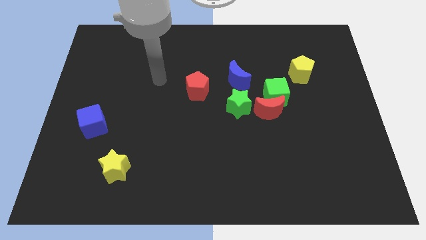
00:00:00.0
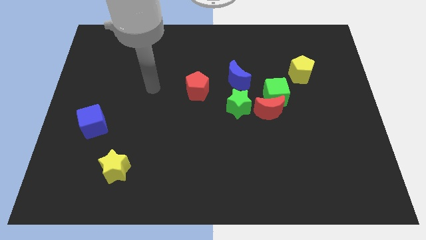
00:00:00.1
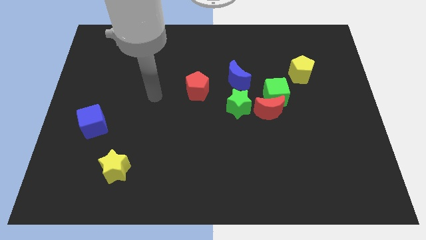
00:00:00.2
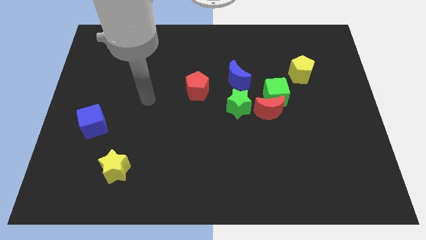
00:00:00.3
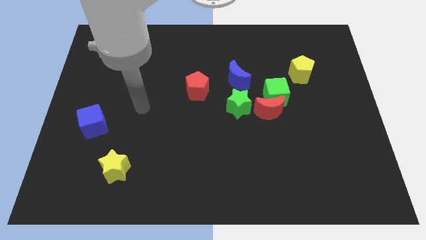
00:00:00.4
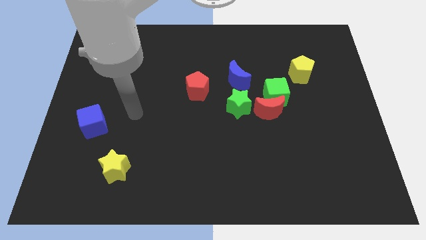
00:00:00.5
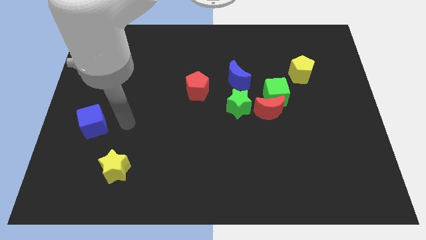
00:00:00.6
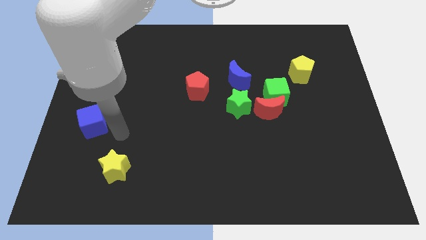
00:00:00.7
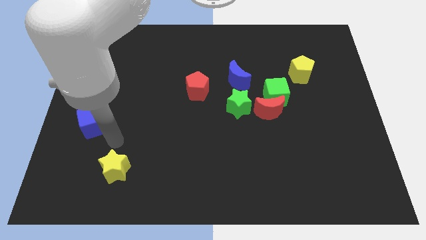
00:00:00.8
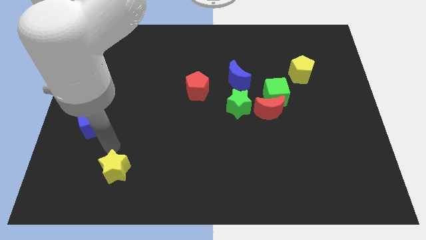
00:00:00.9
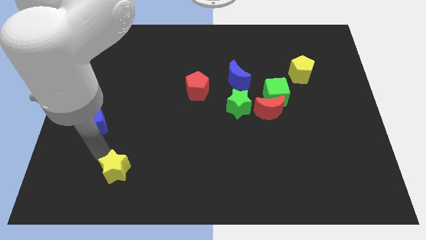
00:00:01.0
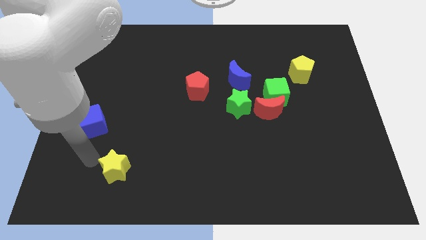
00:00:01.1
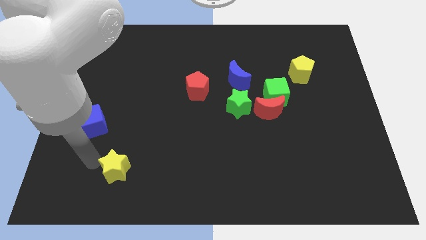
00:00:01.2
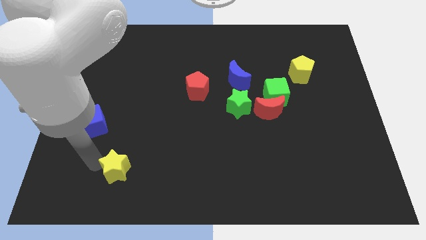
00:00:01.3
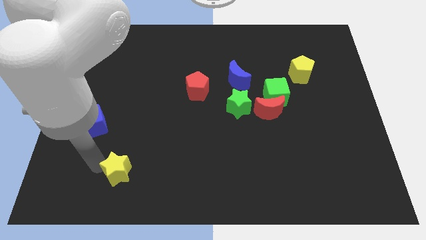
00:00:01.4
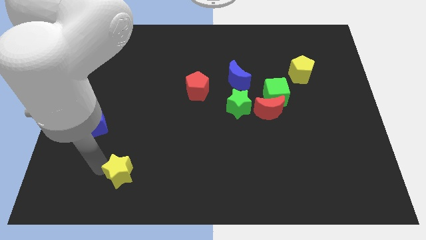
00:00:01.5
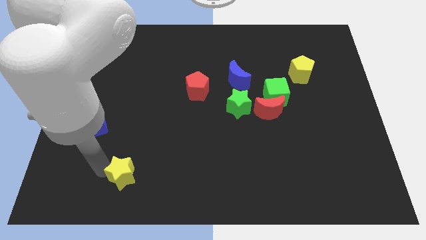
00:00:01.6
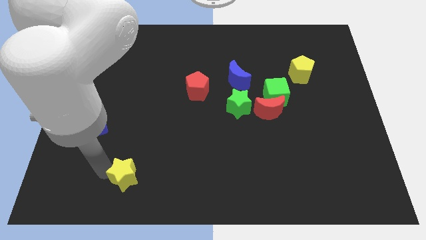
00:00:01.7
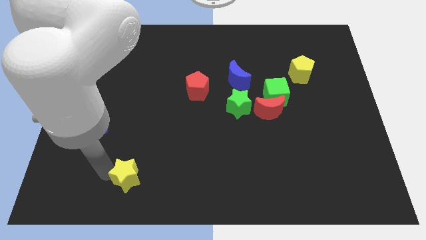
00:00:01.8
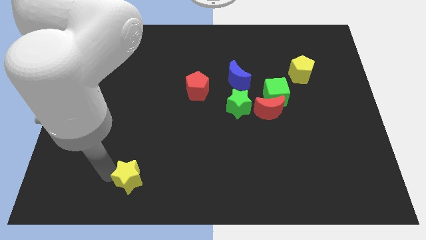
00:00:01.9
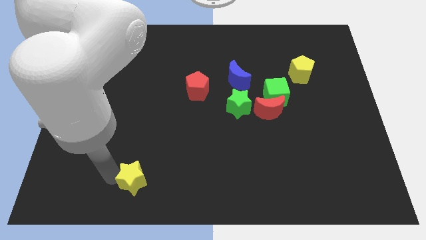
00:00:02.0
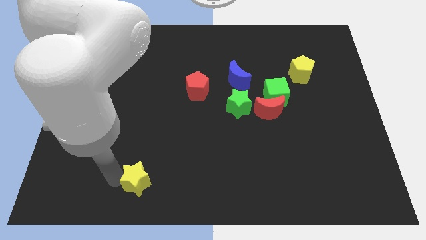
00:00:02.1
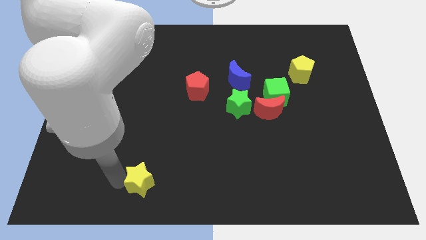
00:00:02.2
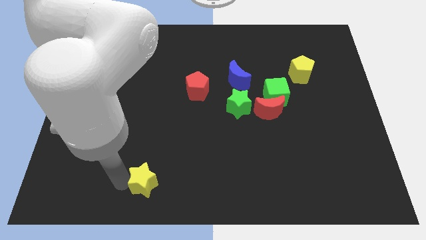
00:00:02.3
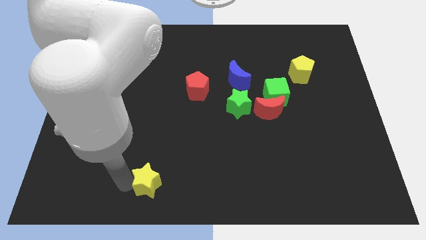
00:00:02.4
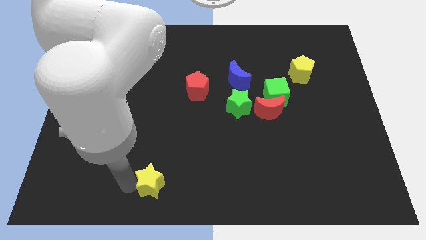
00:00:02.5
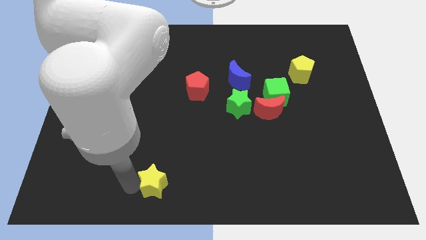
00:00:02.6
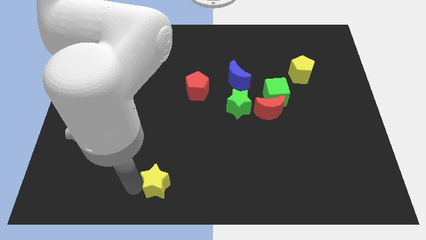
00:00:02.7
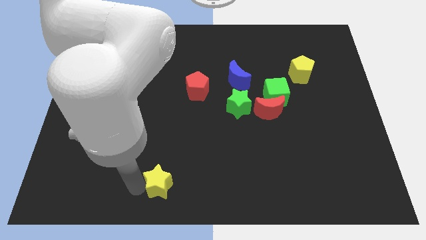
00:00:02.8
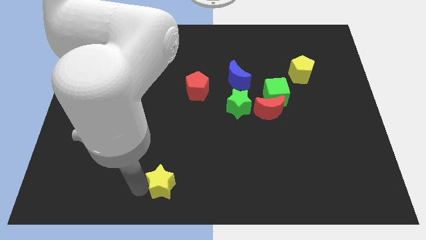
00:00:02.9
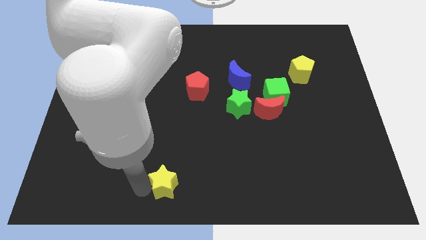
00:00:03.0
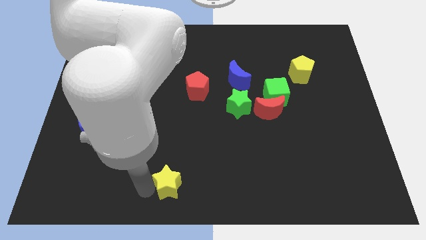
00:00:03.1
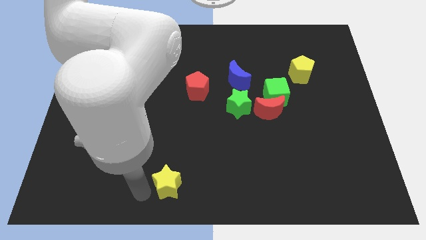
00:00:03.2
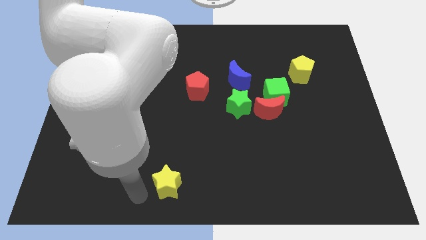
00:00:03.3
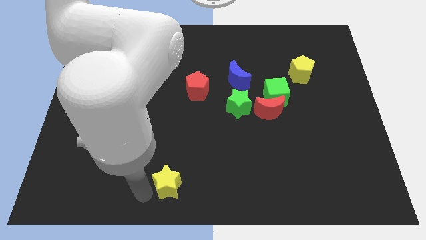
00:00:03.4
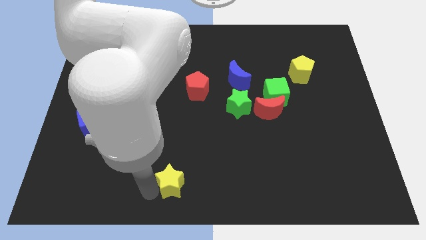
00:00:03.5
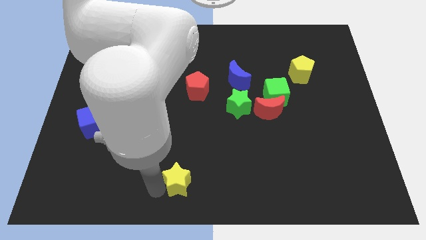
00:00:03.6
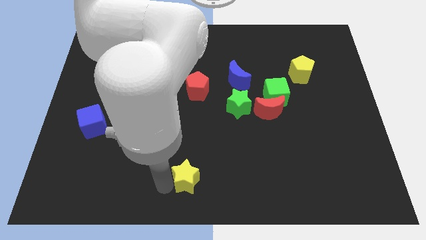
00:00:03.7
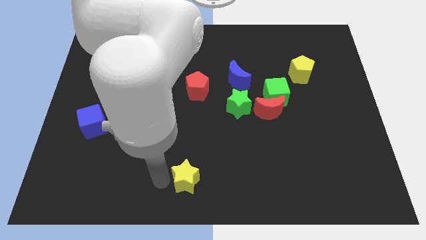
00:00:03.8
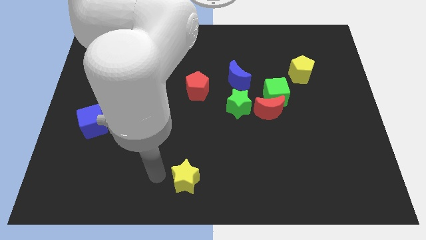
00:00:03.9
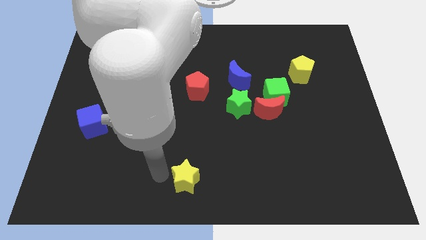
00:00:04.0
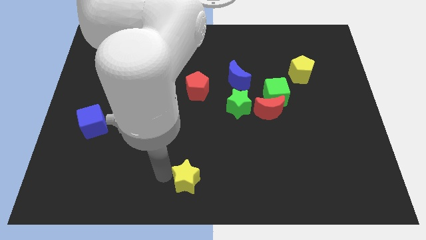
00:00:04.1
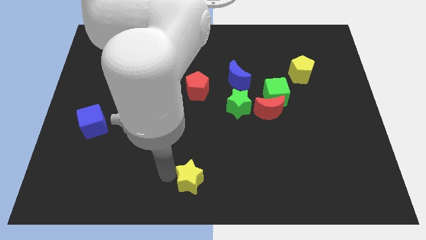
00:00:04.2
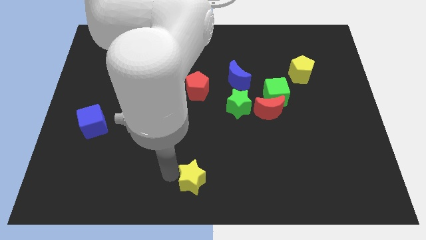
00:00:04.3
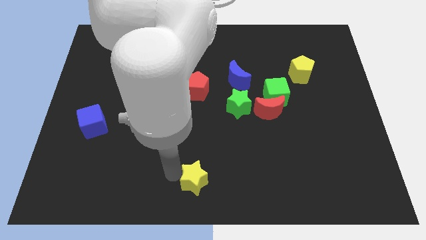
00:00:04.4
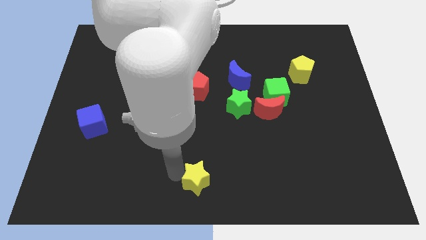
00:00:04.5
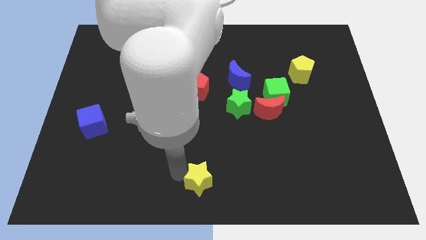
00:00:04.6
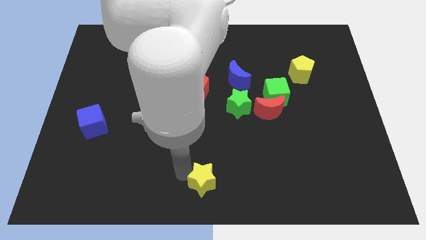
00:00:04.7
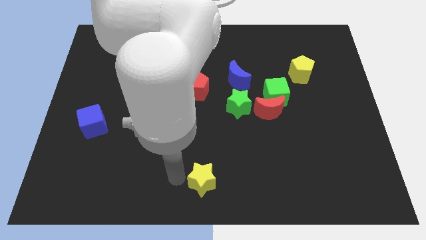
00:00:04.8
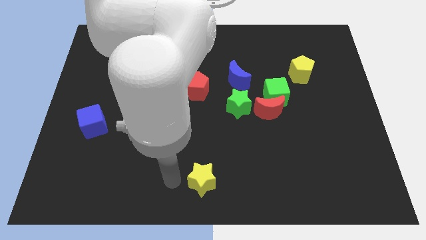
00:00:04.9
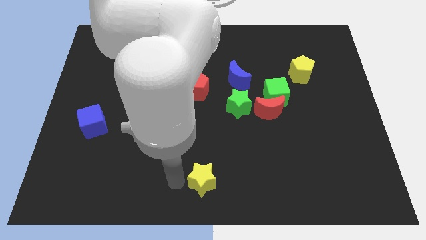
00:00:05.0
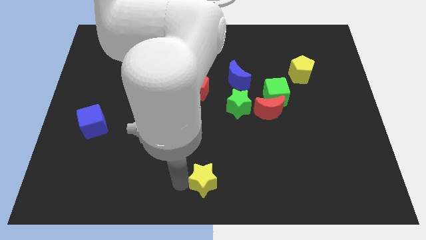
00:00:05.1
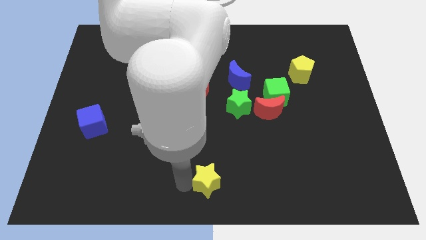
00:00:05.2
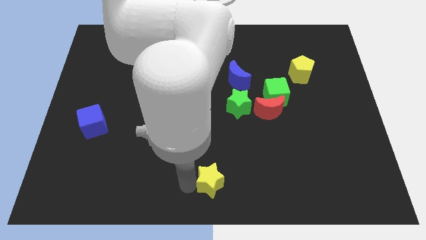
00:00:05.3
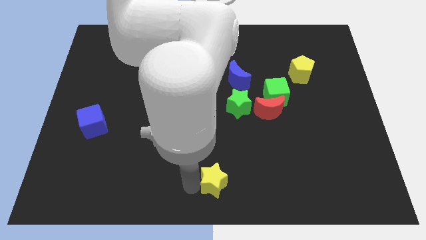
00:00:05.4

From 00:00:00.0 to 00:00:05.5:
move the yellow star to the right

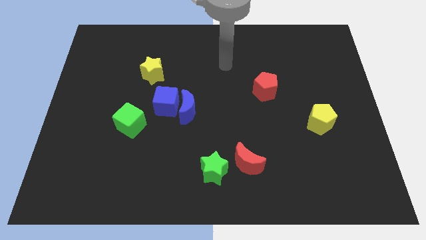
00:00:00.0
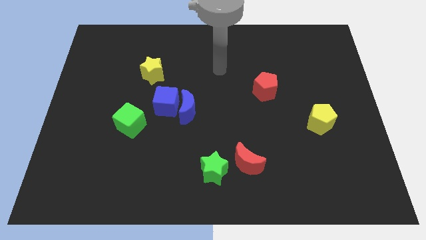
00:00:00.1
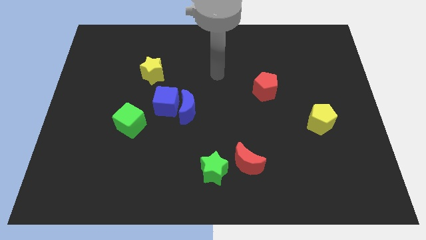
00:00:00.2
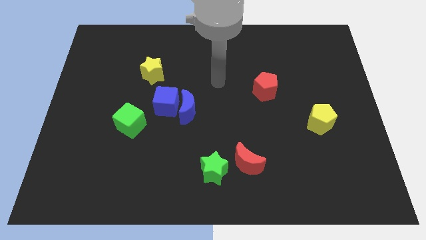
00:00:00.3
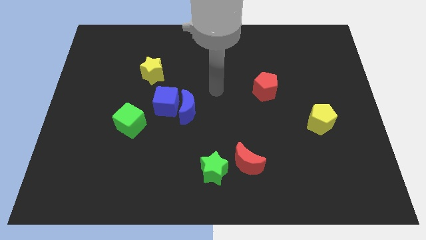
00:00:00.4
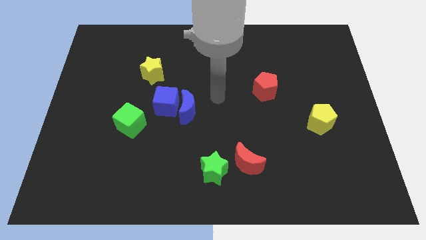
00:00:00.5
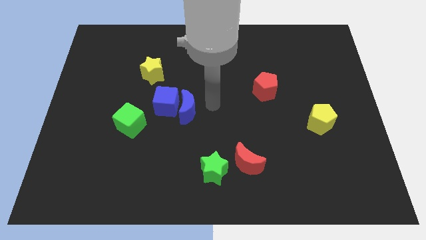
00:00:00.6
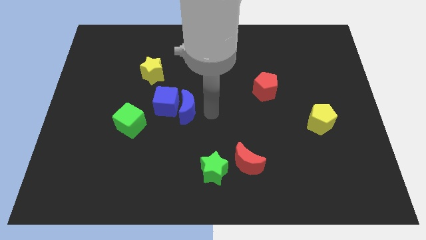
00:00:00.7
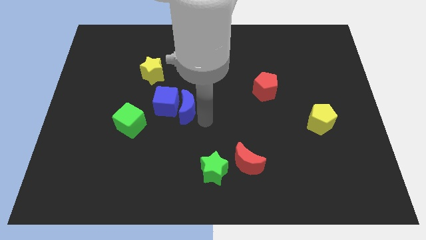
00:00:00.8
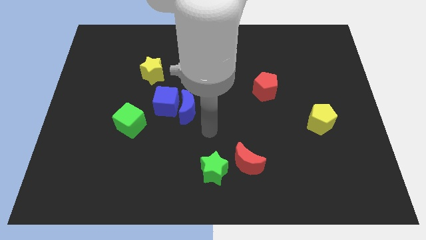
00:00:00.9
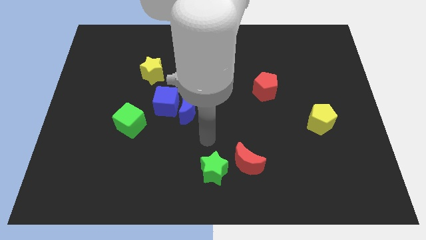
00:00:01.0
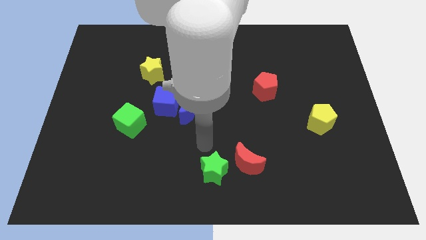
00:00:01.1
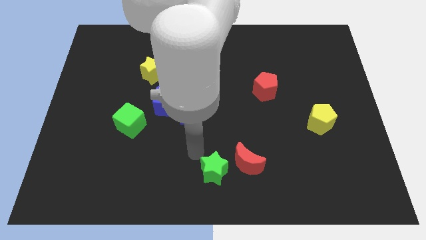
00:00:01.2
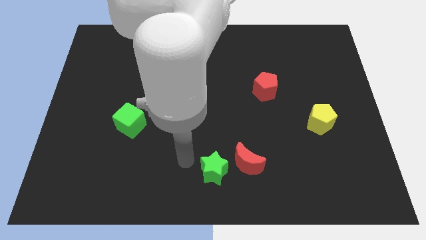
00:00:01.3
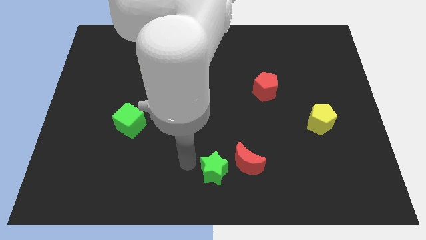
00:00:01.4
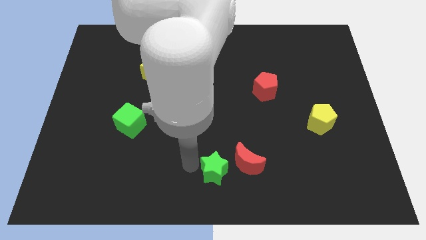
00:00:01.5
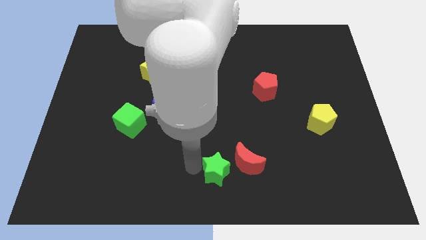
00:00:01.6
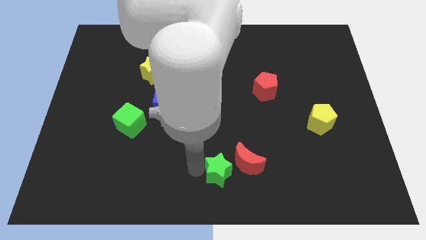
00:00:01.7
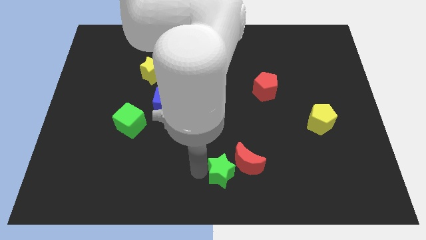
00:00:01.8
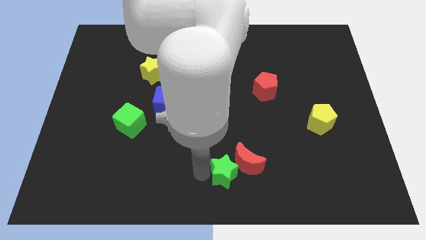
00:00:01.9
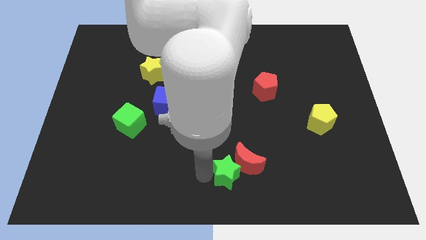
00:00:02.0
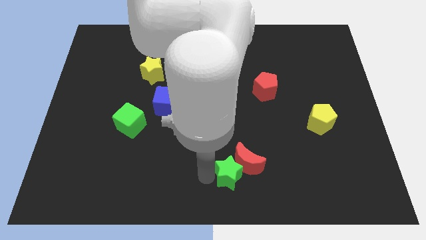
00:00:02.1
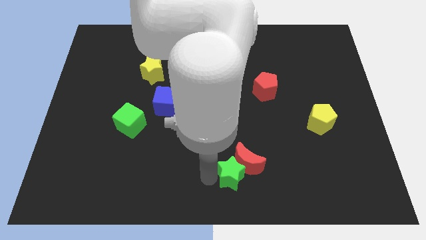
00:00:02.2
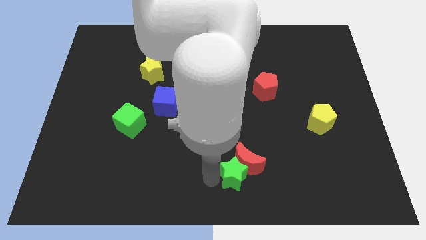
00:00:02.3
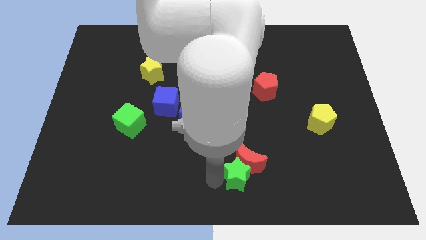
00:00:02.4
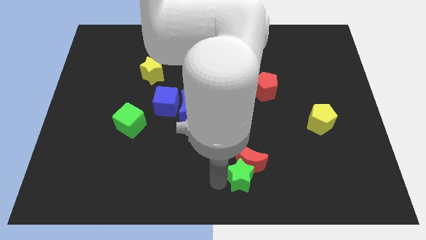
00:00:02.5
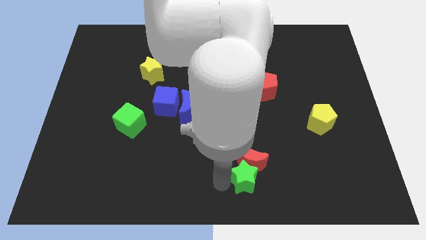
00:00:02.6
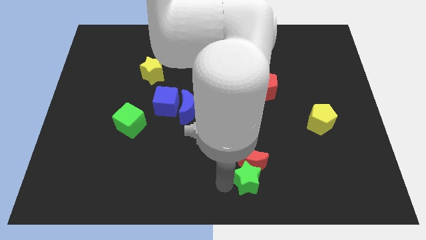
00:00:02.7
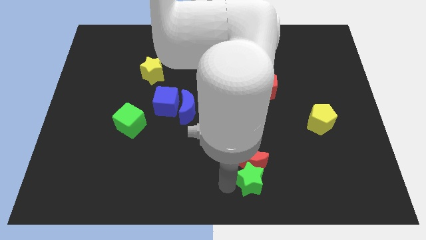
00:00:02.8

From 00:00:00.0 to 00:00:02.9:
push the green star right a little bit
